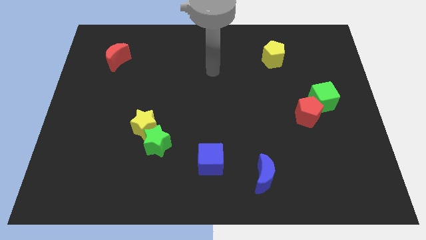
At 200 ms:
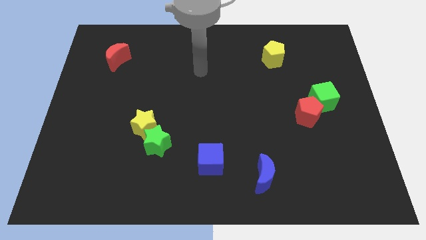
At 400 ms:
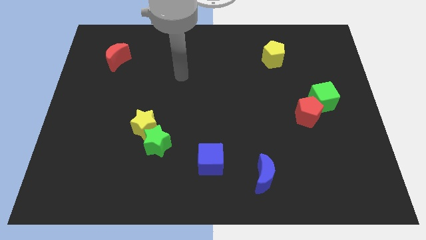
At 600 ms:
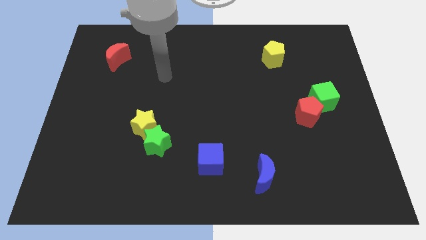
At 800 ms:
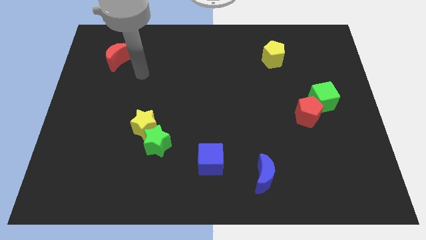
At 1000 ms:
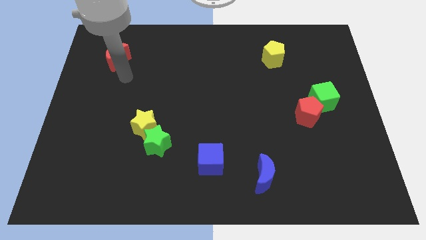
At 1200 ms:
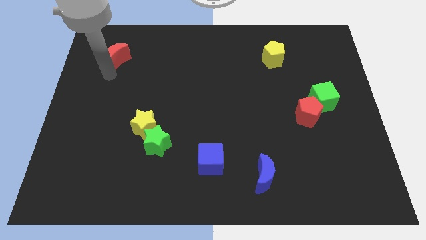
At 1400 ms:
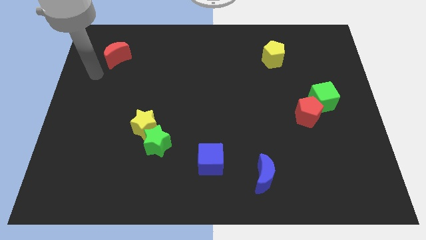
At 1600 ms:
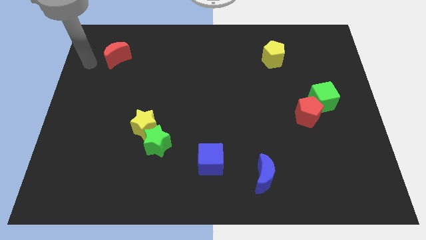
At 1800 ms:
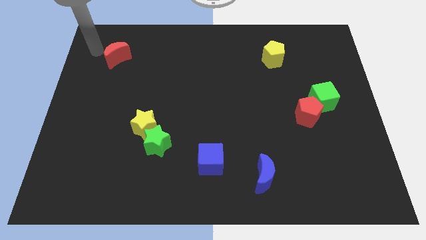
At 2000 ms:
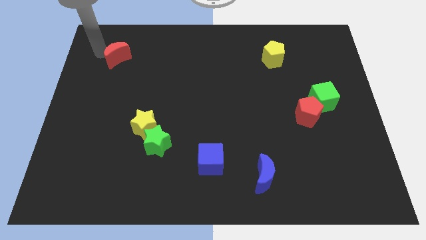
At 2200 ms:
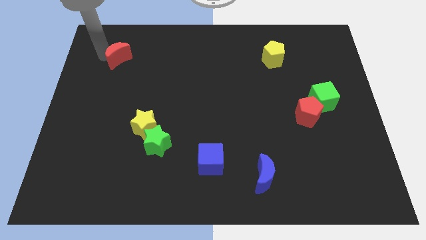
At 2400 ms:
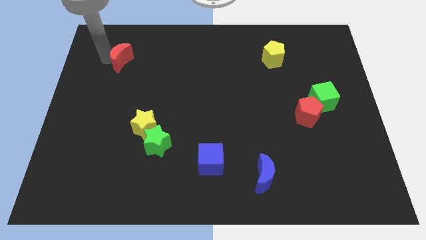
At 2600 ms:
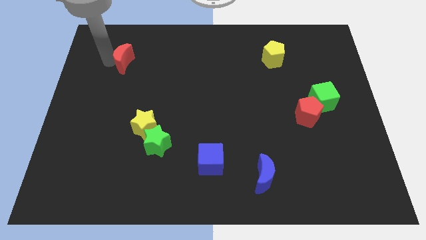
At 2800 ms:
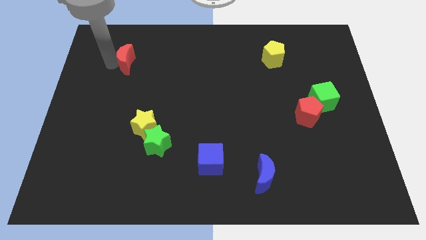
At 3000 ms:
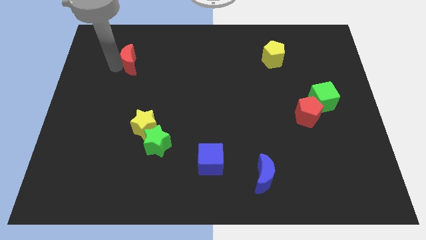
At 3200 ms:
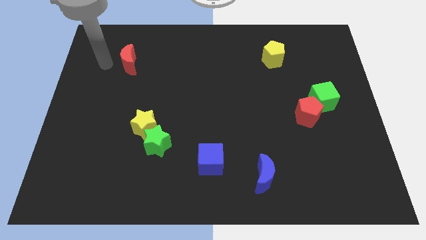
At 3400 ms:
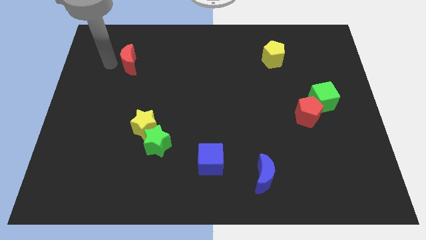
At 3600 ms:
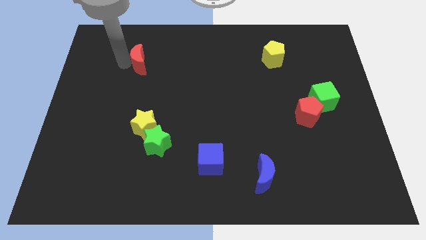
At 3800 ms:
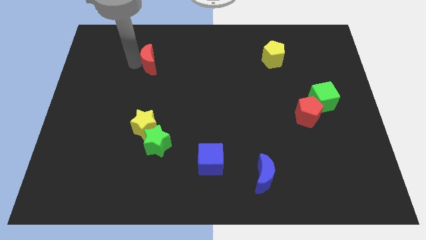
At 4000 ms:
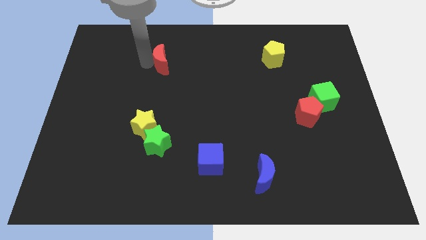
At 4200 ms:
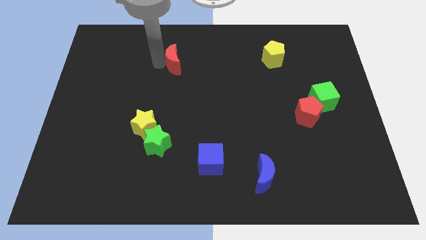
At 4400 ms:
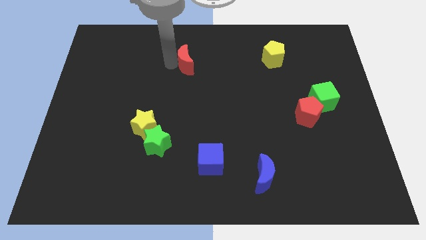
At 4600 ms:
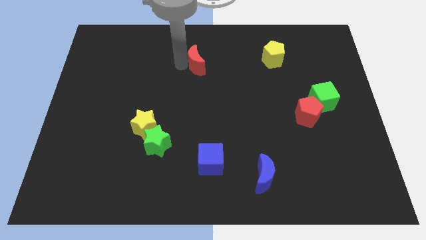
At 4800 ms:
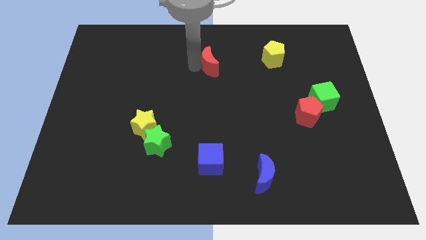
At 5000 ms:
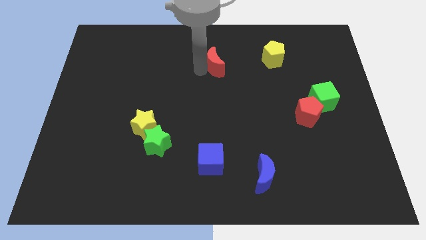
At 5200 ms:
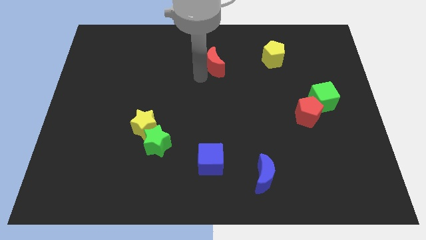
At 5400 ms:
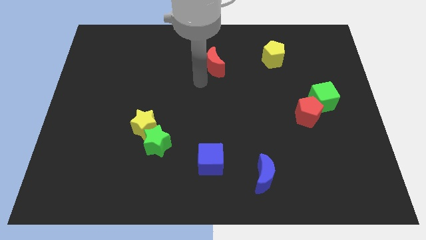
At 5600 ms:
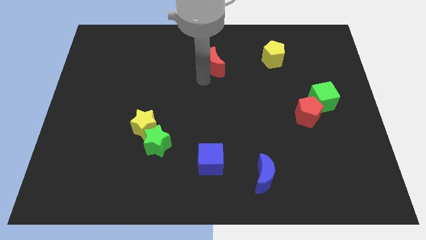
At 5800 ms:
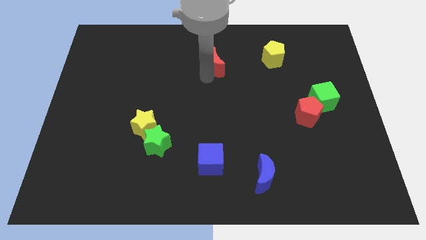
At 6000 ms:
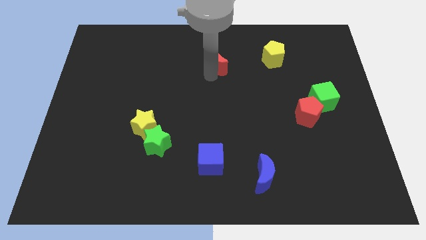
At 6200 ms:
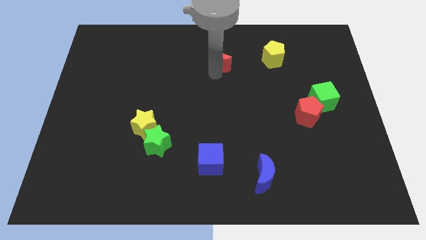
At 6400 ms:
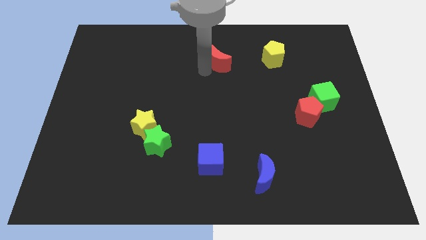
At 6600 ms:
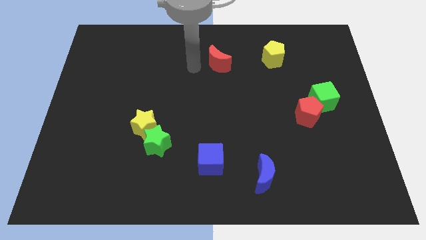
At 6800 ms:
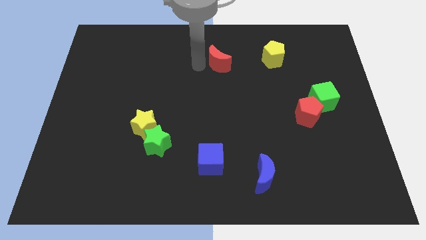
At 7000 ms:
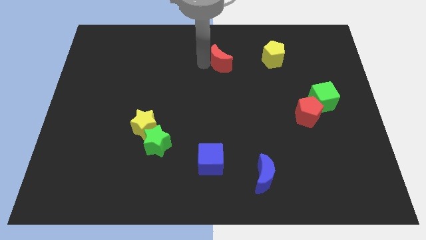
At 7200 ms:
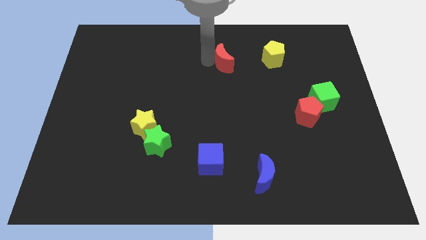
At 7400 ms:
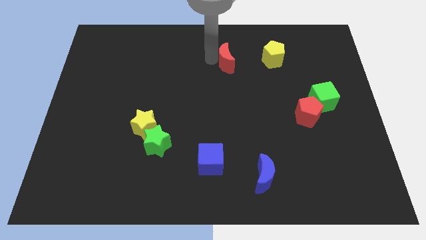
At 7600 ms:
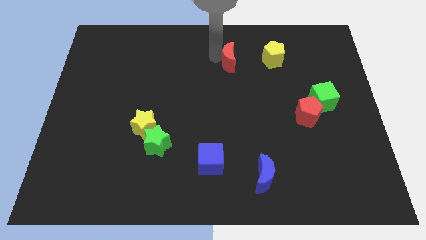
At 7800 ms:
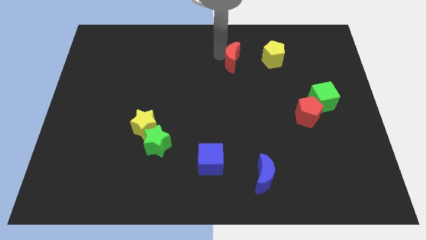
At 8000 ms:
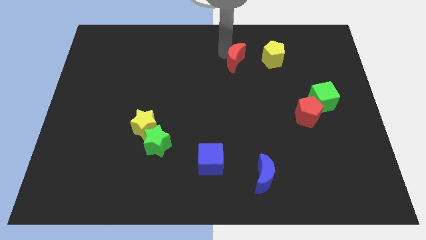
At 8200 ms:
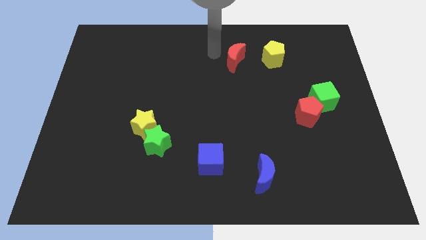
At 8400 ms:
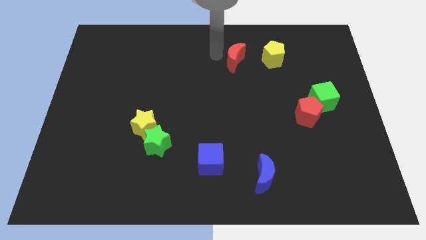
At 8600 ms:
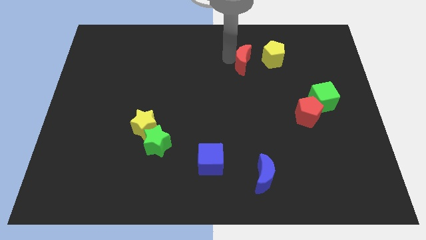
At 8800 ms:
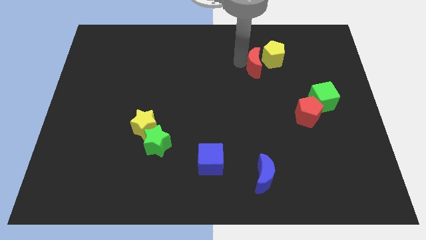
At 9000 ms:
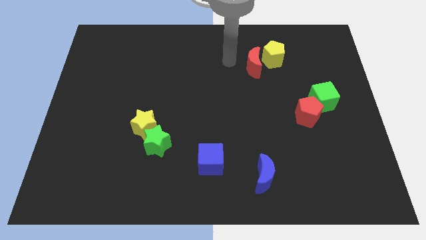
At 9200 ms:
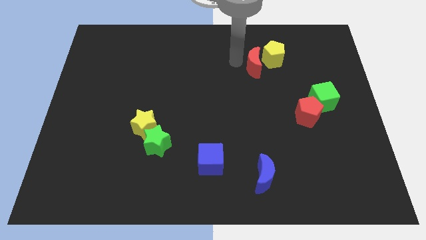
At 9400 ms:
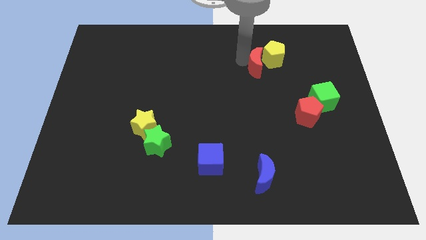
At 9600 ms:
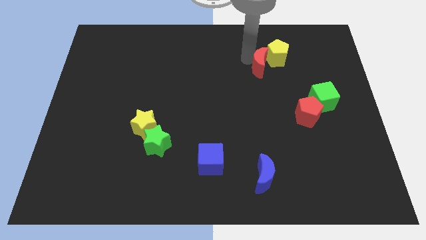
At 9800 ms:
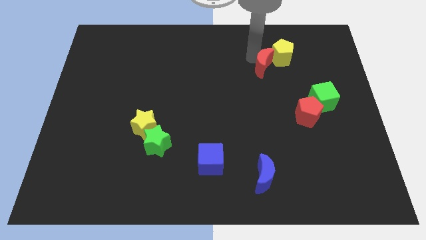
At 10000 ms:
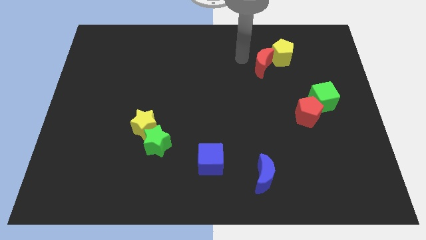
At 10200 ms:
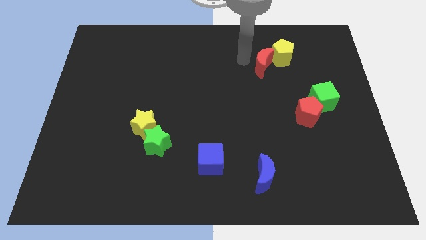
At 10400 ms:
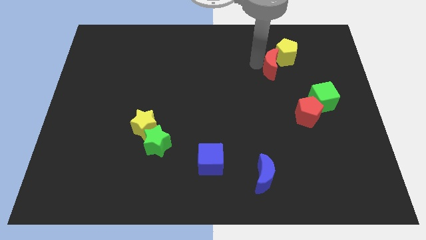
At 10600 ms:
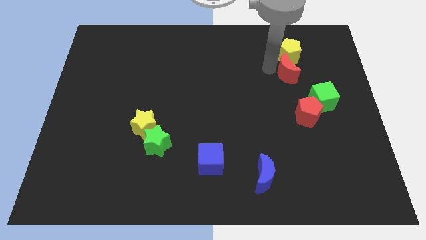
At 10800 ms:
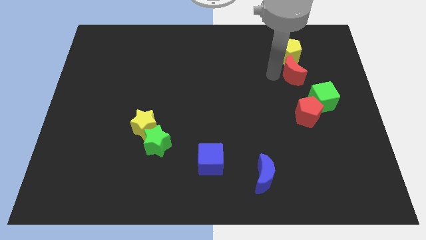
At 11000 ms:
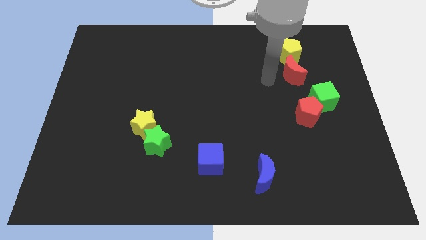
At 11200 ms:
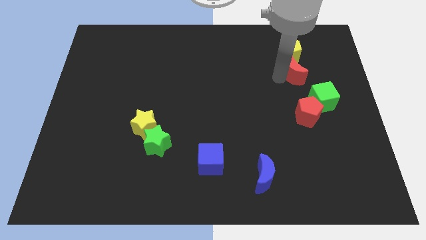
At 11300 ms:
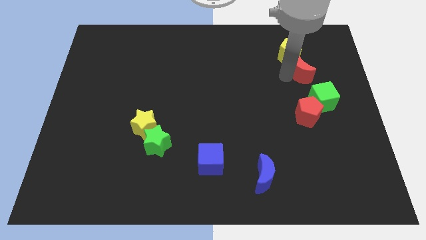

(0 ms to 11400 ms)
move the red moon to the top of the green cube

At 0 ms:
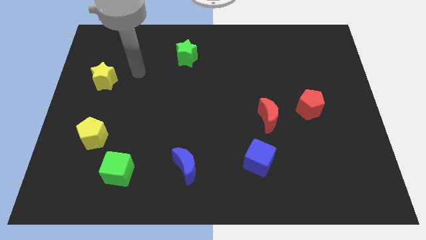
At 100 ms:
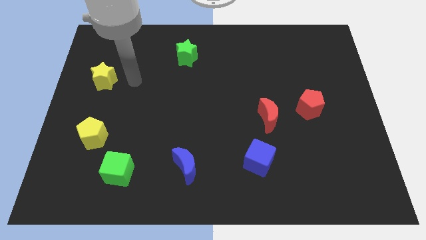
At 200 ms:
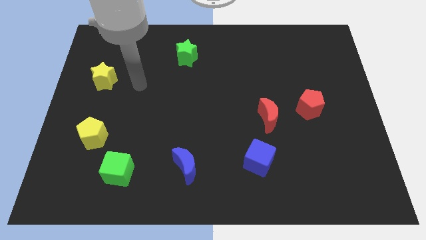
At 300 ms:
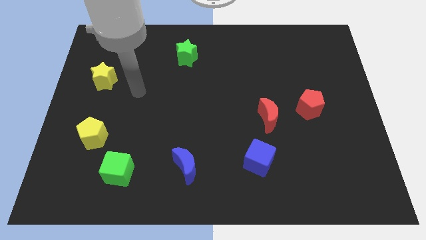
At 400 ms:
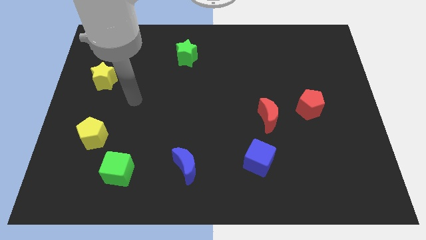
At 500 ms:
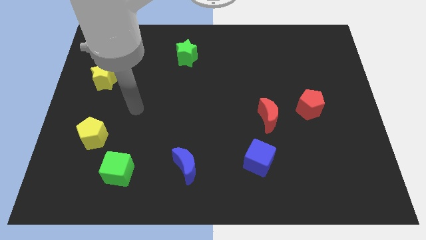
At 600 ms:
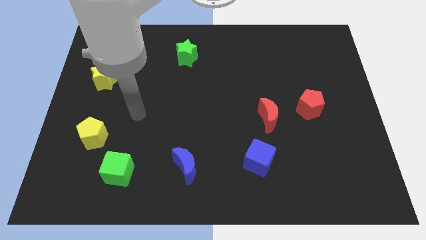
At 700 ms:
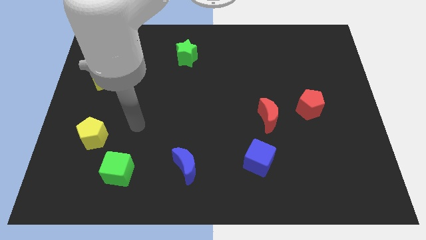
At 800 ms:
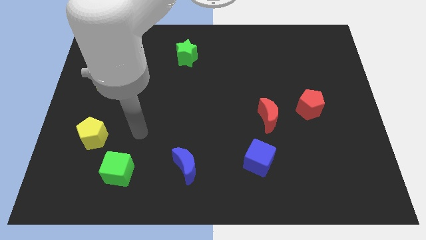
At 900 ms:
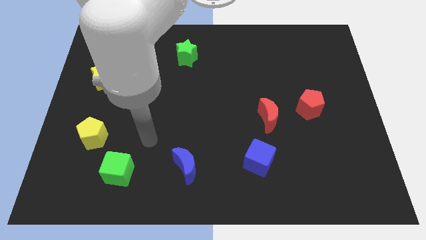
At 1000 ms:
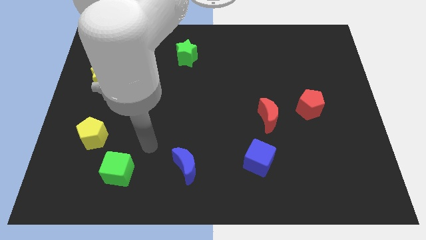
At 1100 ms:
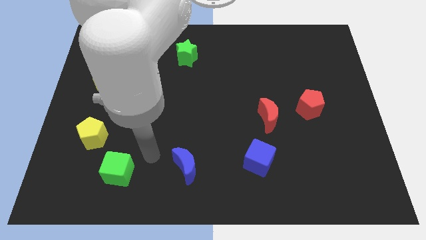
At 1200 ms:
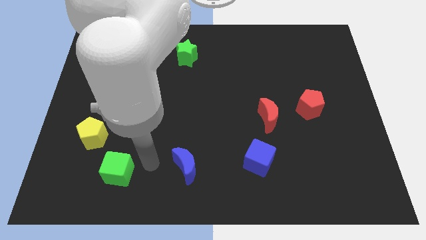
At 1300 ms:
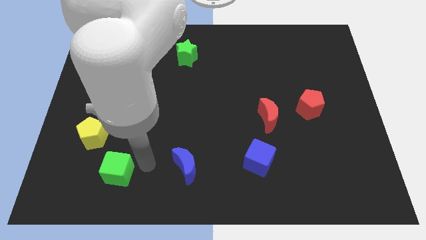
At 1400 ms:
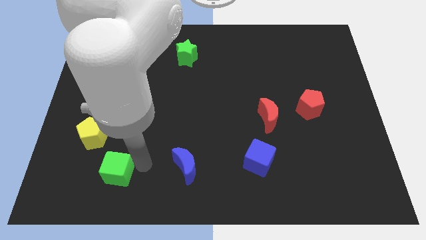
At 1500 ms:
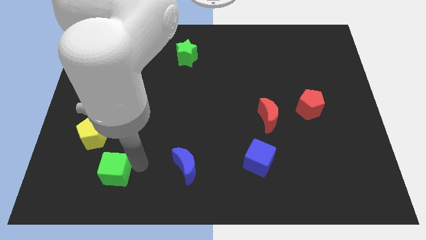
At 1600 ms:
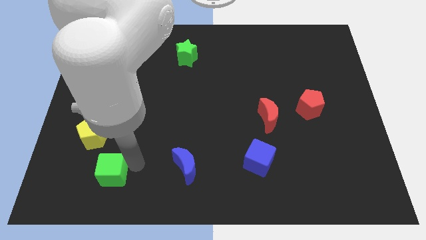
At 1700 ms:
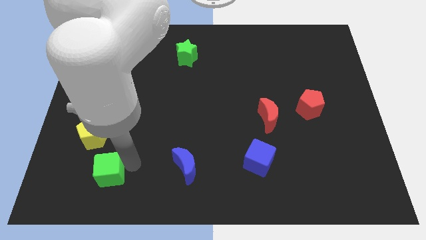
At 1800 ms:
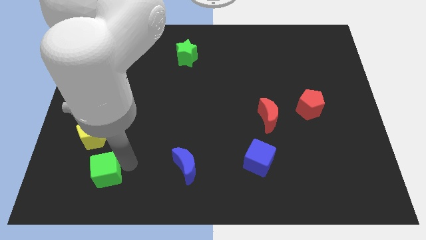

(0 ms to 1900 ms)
move the green cube below the yellow pentagon

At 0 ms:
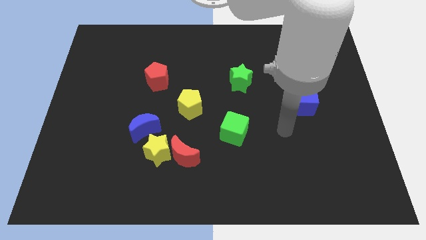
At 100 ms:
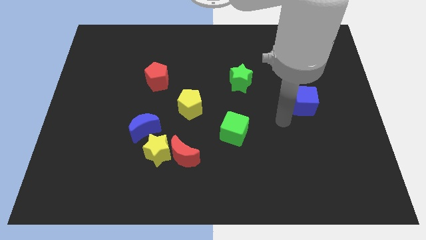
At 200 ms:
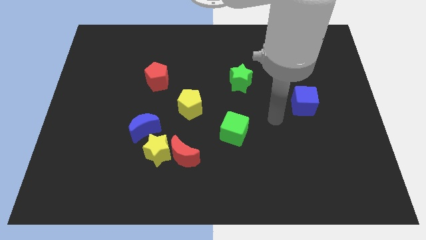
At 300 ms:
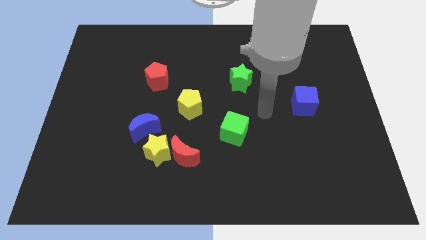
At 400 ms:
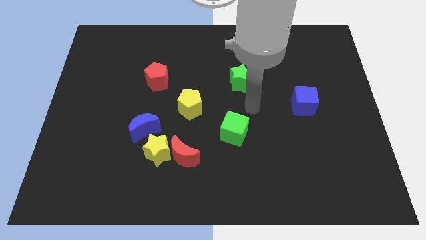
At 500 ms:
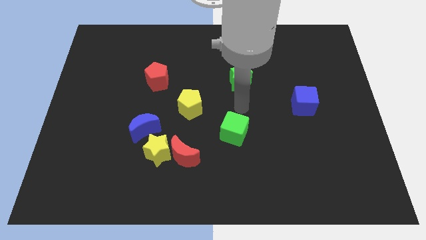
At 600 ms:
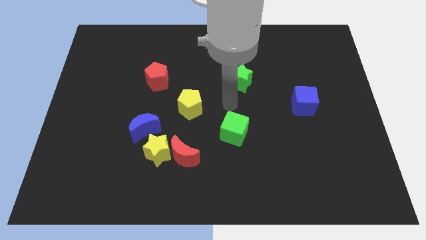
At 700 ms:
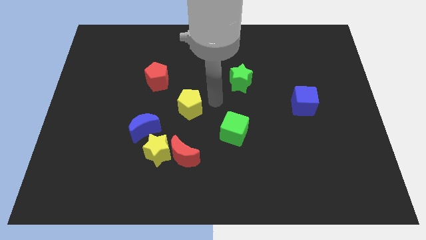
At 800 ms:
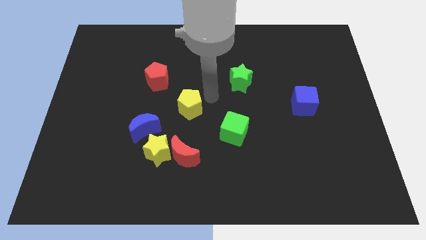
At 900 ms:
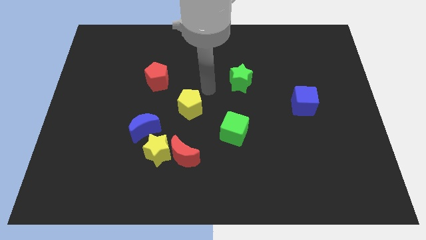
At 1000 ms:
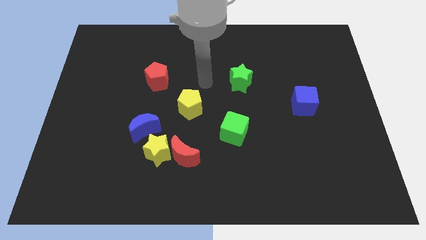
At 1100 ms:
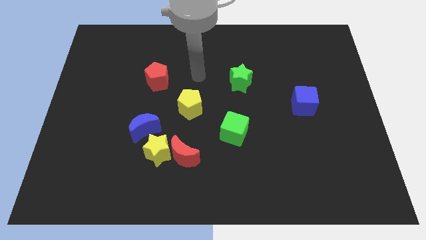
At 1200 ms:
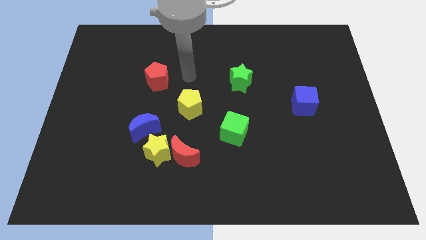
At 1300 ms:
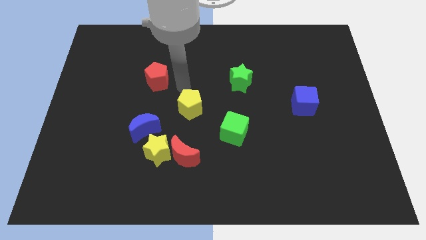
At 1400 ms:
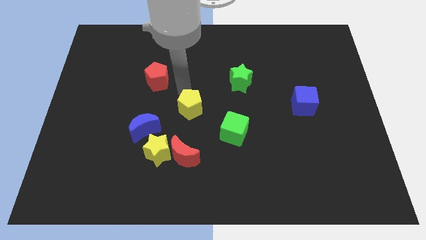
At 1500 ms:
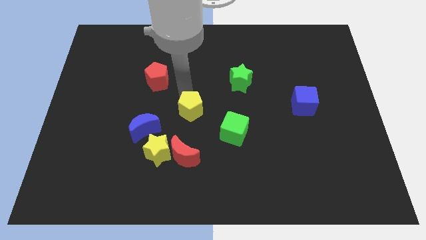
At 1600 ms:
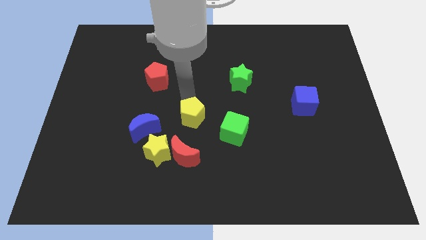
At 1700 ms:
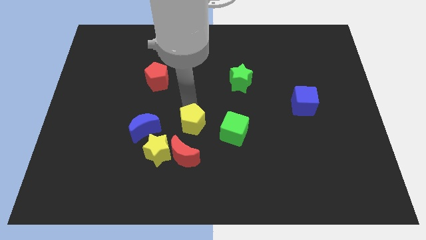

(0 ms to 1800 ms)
slide the yellow pentagon to the top right of the red moon
